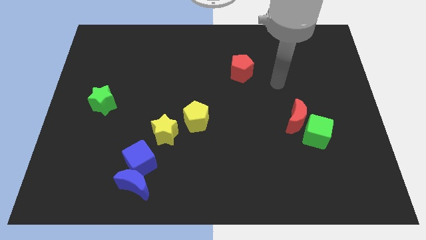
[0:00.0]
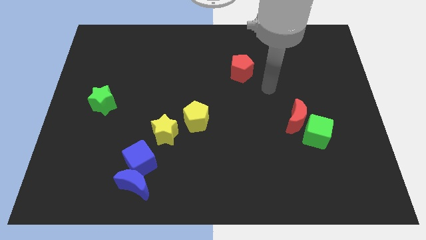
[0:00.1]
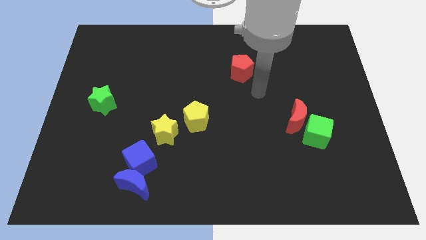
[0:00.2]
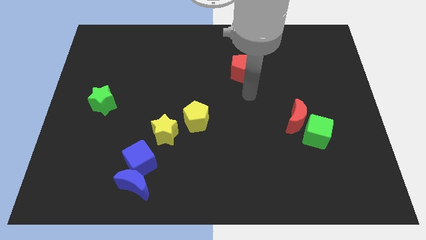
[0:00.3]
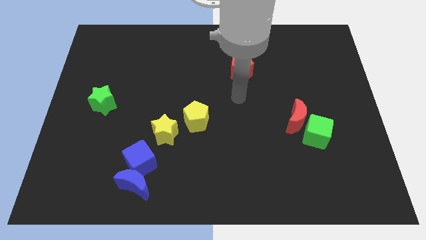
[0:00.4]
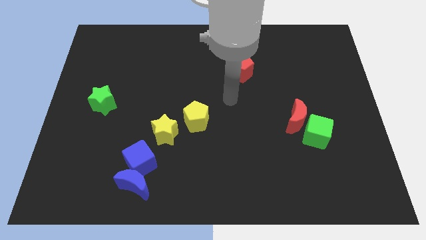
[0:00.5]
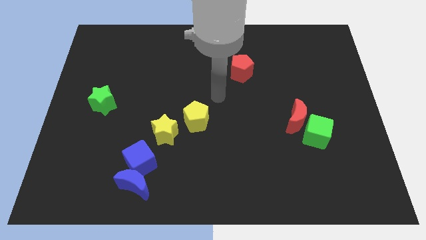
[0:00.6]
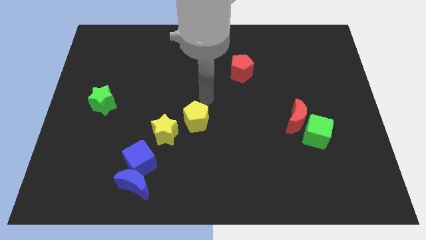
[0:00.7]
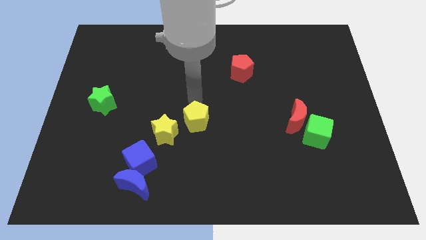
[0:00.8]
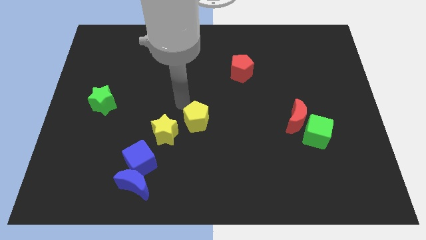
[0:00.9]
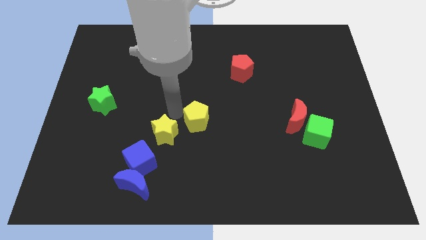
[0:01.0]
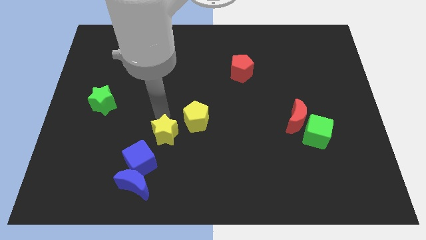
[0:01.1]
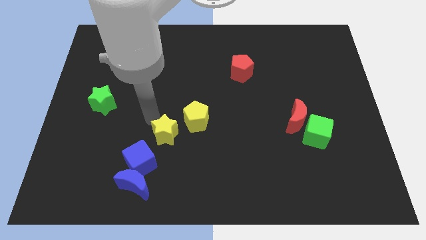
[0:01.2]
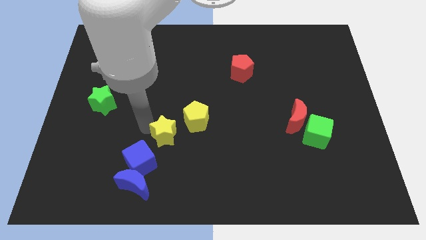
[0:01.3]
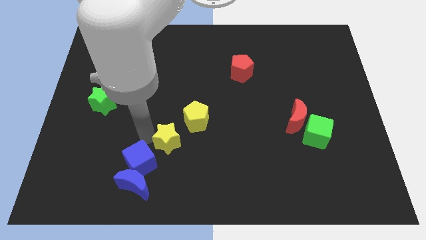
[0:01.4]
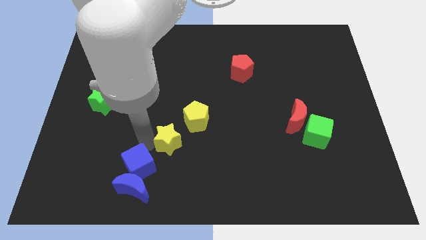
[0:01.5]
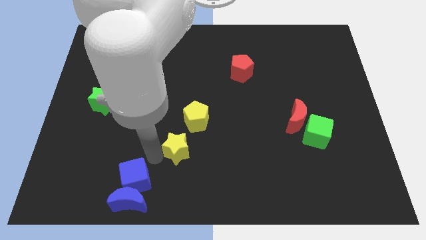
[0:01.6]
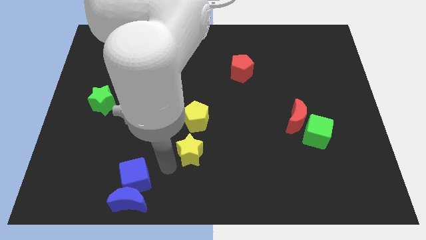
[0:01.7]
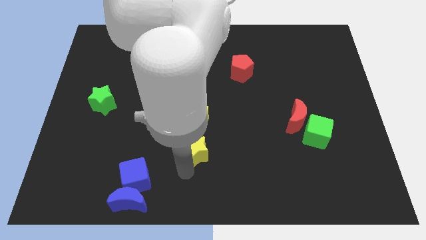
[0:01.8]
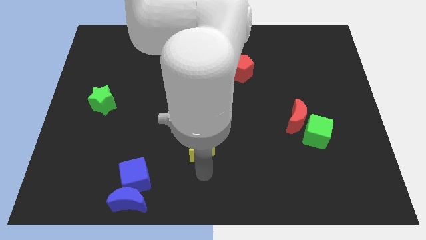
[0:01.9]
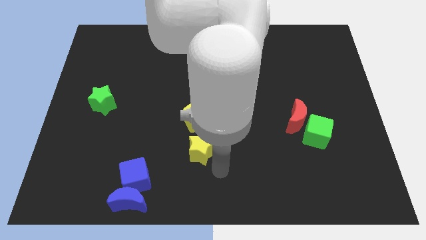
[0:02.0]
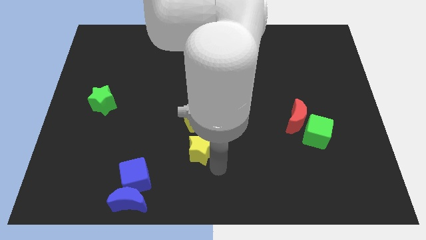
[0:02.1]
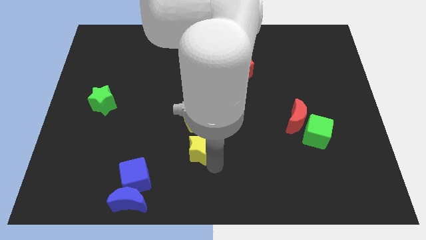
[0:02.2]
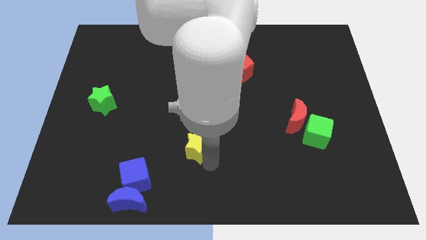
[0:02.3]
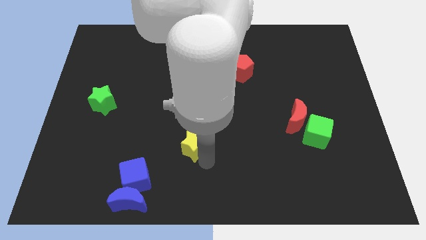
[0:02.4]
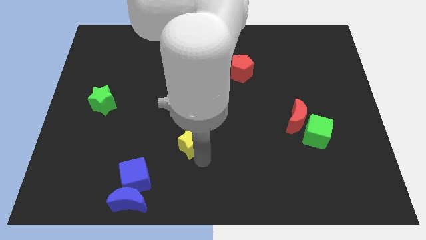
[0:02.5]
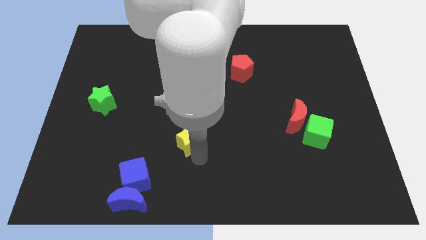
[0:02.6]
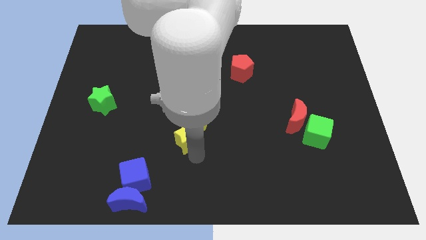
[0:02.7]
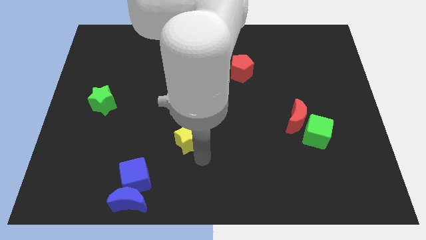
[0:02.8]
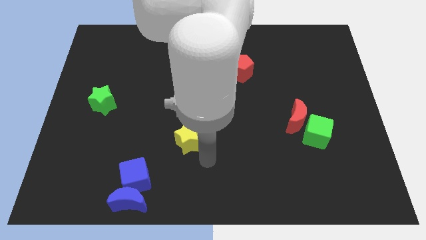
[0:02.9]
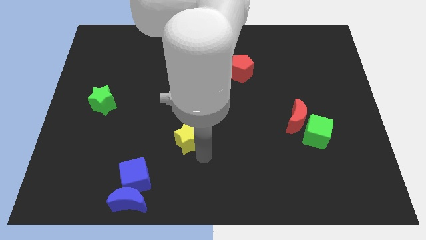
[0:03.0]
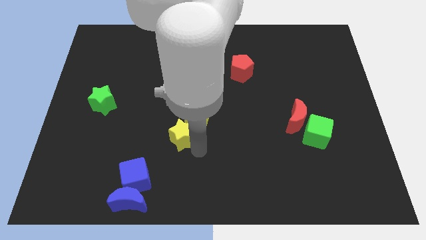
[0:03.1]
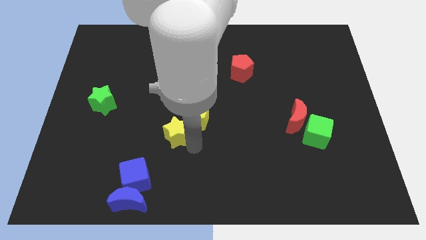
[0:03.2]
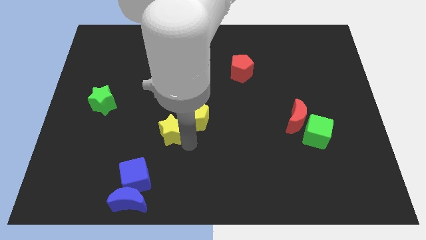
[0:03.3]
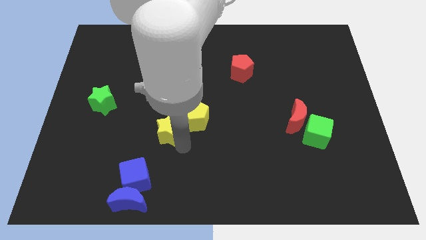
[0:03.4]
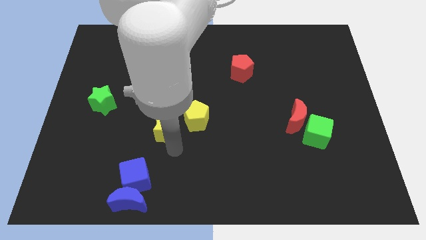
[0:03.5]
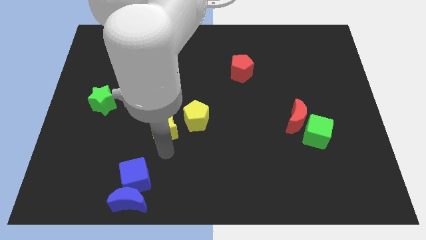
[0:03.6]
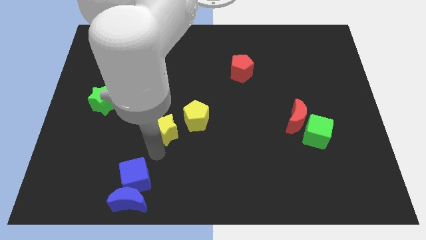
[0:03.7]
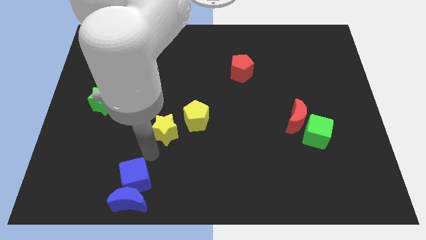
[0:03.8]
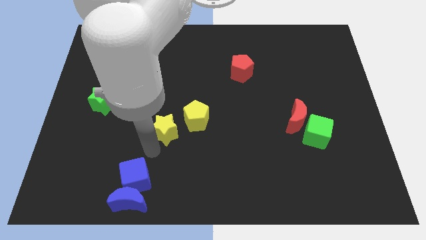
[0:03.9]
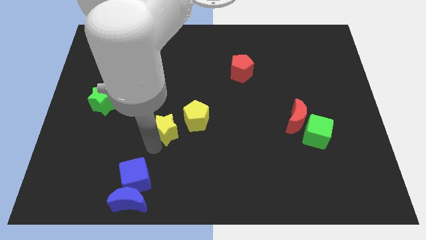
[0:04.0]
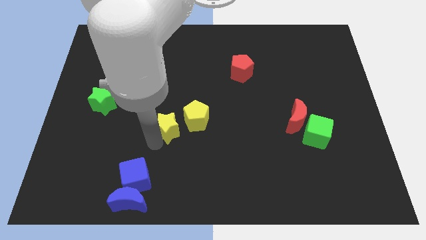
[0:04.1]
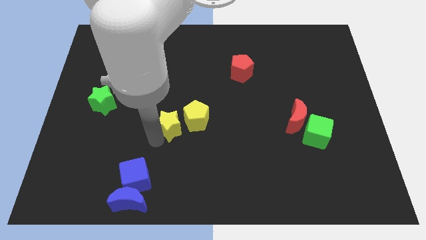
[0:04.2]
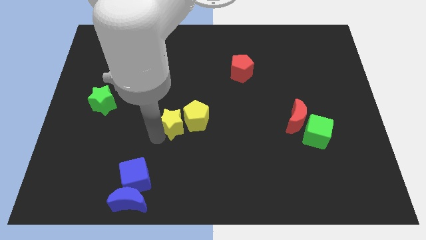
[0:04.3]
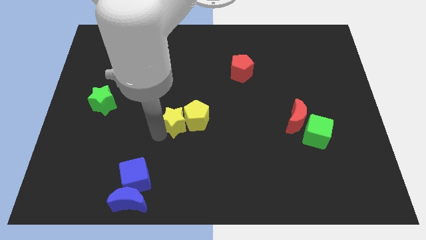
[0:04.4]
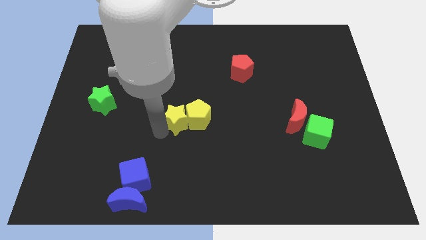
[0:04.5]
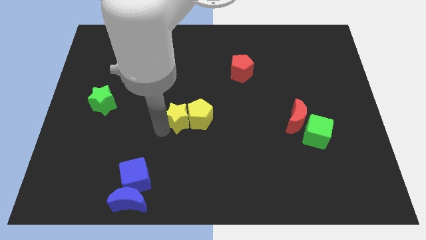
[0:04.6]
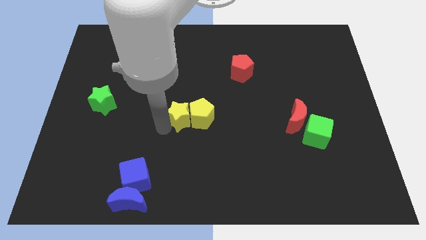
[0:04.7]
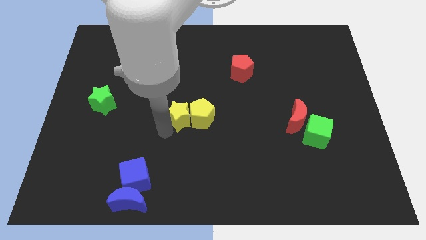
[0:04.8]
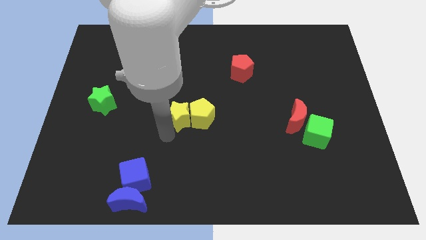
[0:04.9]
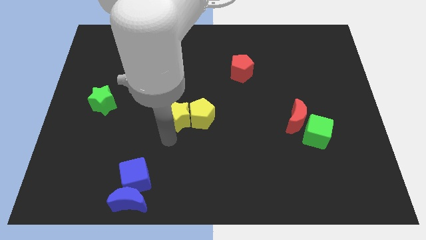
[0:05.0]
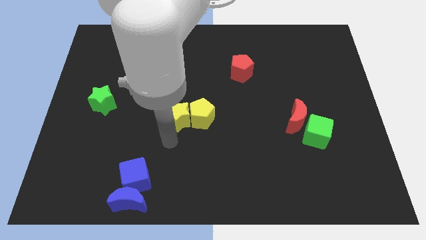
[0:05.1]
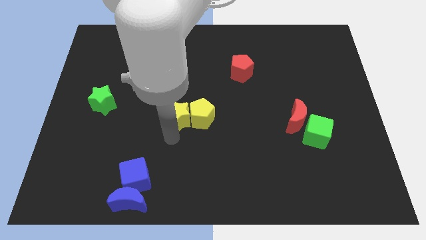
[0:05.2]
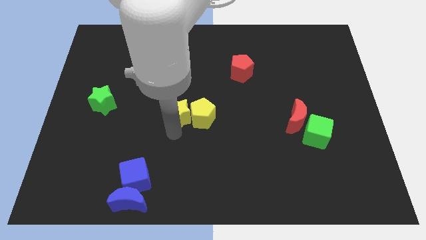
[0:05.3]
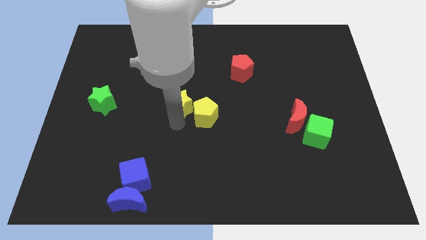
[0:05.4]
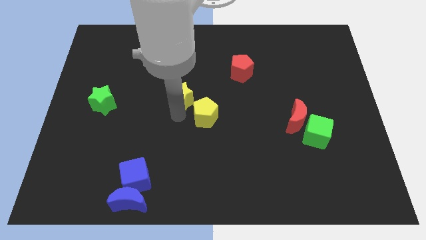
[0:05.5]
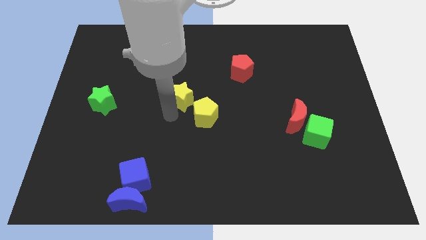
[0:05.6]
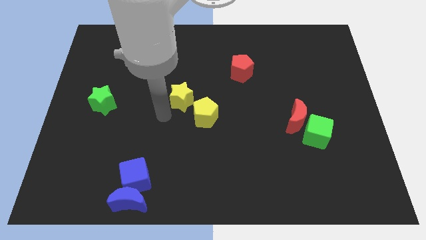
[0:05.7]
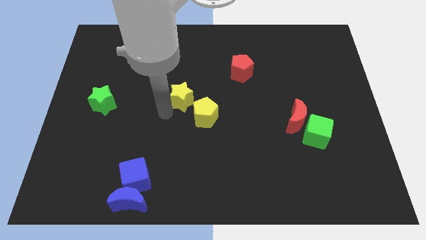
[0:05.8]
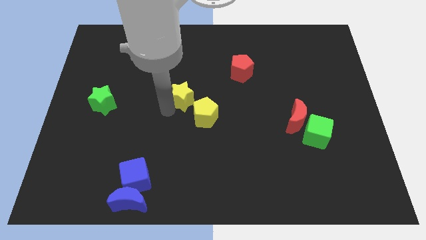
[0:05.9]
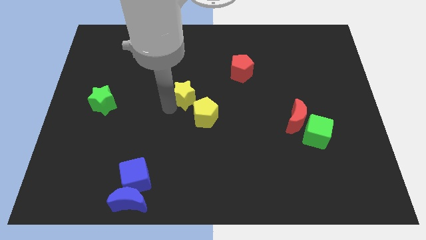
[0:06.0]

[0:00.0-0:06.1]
slide the yellow star to the top side of the yellow pentagon

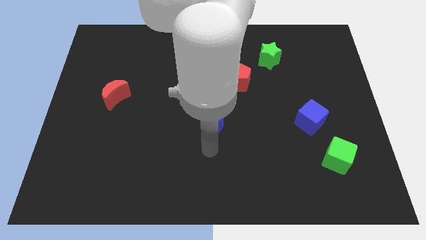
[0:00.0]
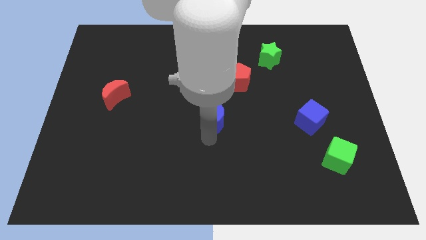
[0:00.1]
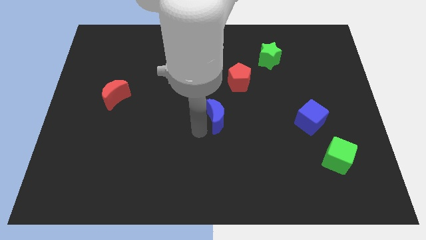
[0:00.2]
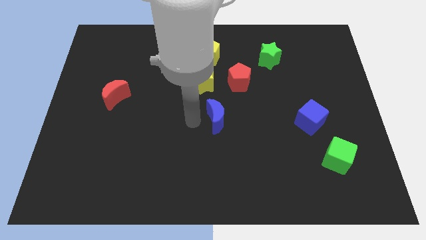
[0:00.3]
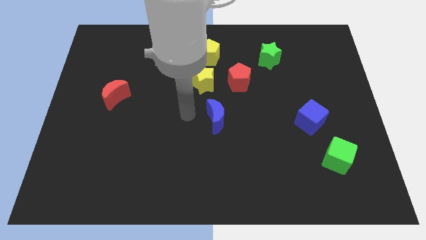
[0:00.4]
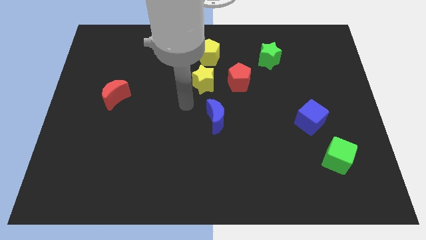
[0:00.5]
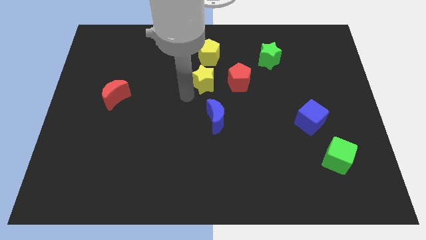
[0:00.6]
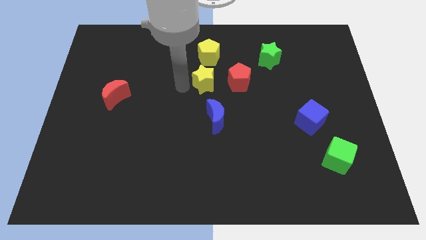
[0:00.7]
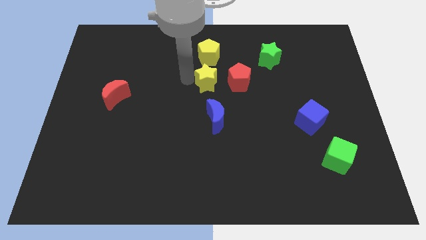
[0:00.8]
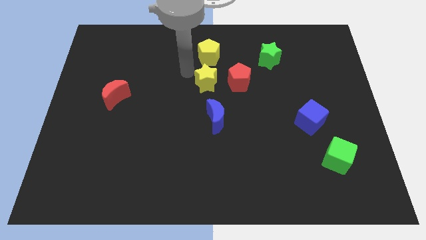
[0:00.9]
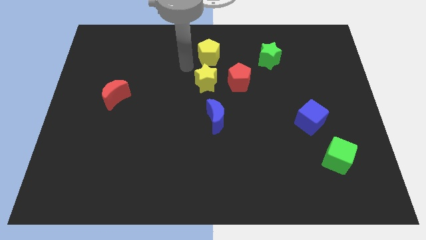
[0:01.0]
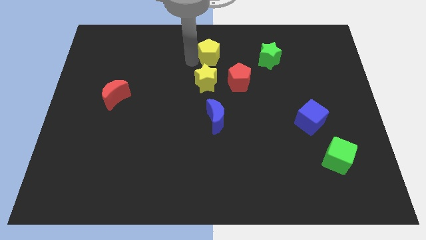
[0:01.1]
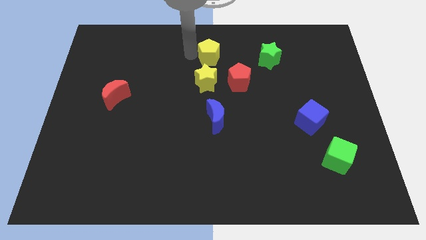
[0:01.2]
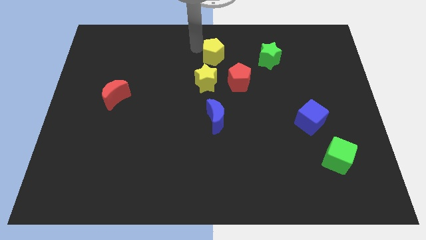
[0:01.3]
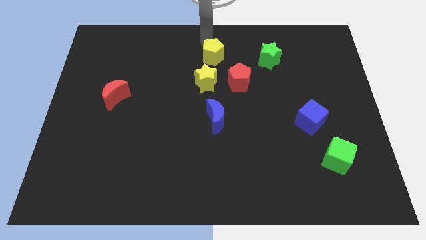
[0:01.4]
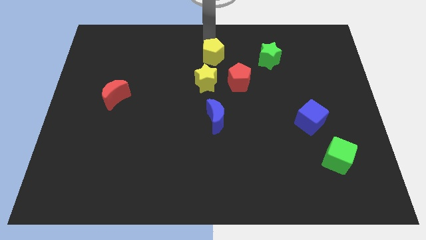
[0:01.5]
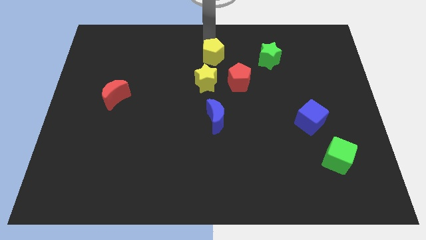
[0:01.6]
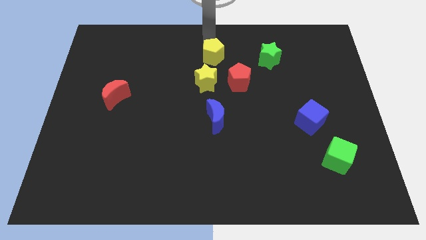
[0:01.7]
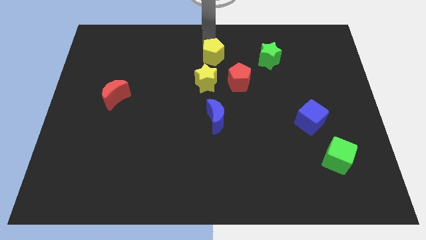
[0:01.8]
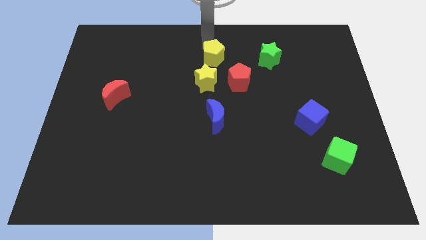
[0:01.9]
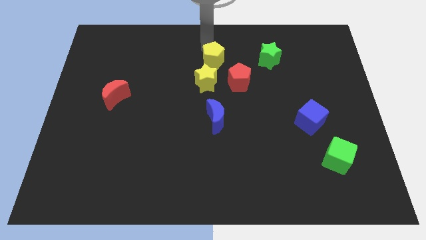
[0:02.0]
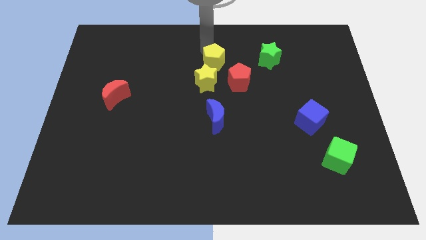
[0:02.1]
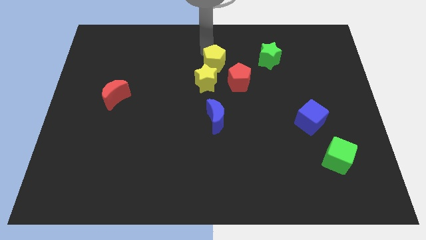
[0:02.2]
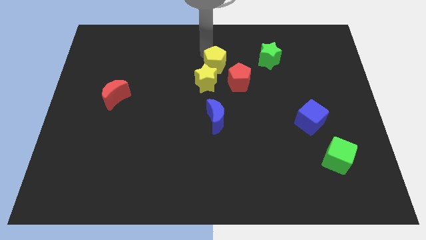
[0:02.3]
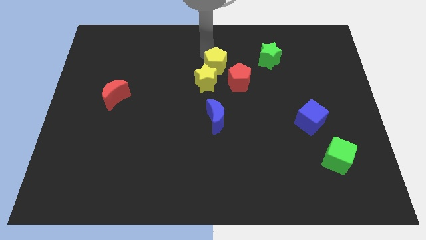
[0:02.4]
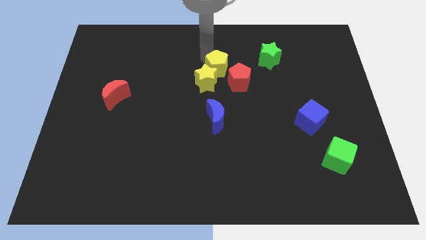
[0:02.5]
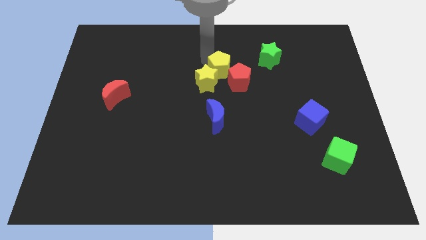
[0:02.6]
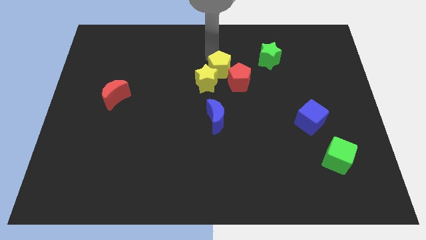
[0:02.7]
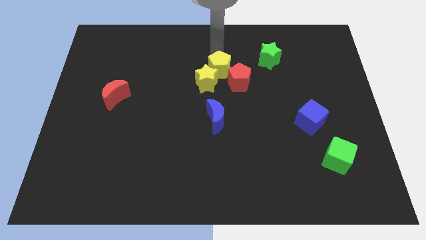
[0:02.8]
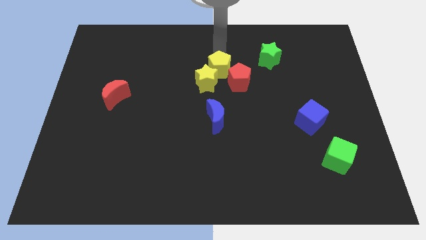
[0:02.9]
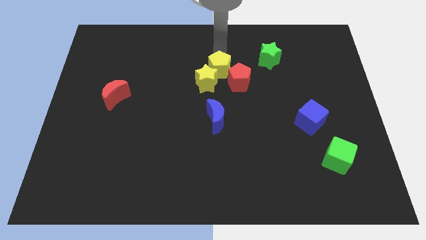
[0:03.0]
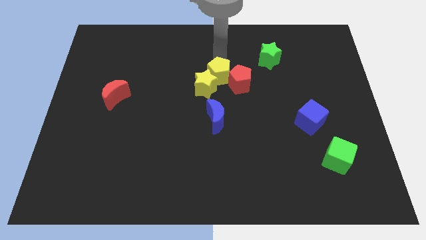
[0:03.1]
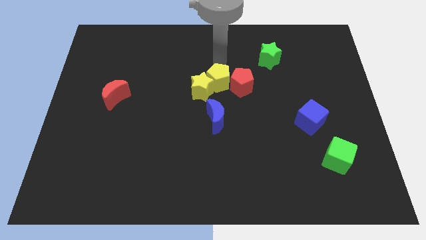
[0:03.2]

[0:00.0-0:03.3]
move the yellow pentagon to the bottom left of the red pentagon
